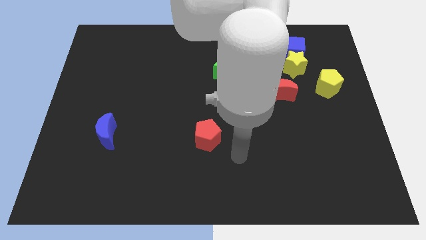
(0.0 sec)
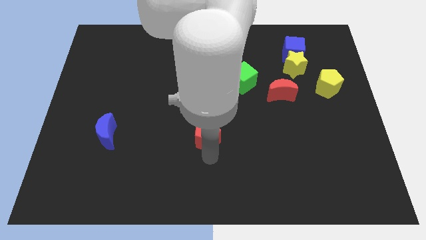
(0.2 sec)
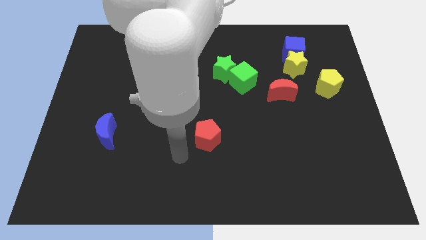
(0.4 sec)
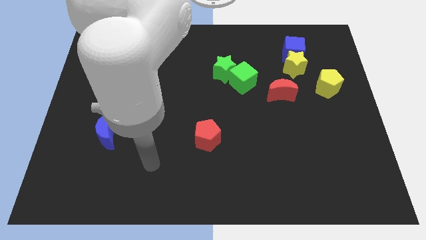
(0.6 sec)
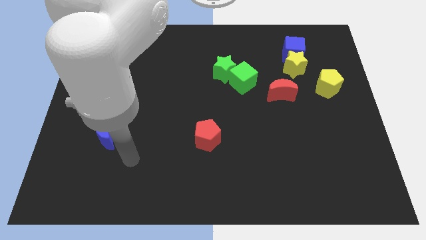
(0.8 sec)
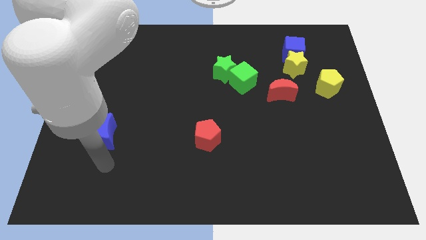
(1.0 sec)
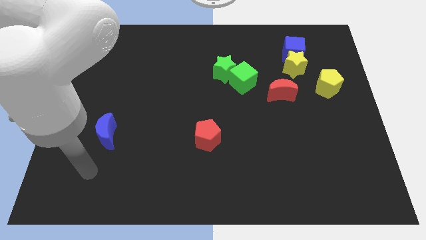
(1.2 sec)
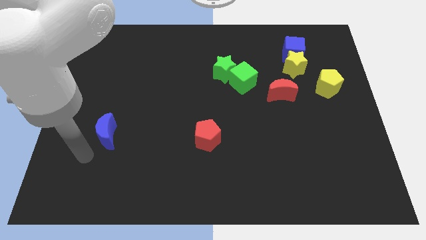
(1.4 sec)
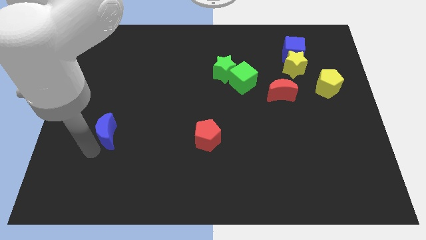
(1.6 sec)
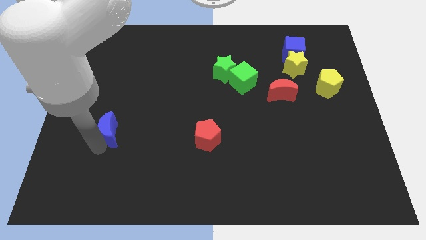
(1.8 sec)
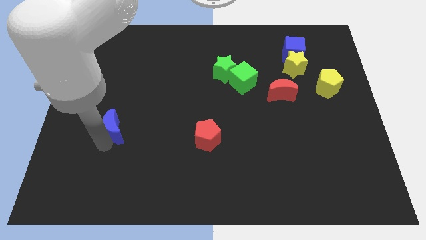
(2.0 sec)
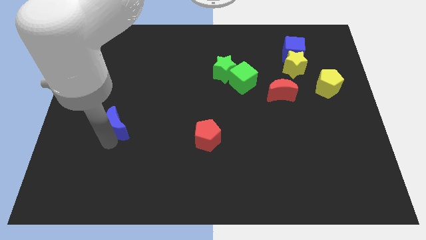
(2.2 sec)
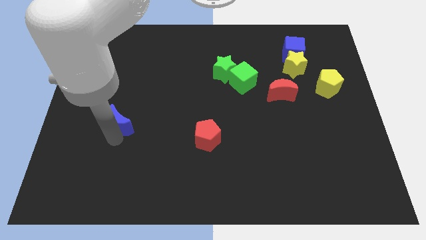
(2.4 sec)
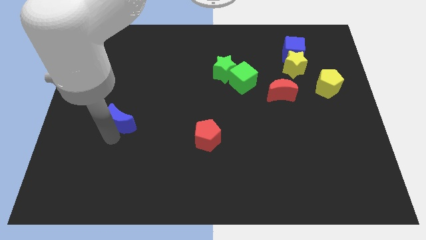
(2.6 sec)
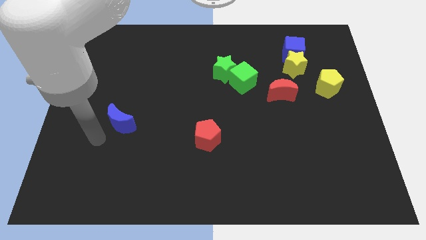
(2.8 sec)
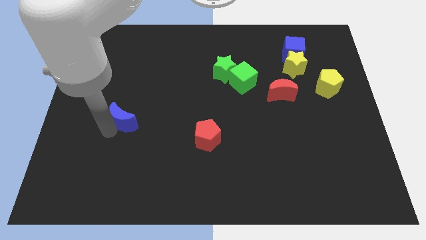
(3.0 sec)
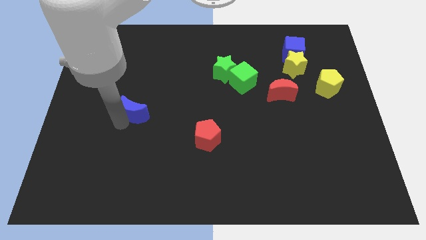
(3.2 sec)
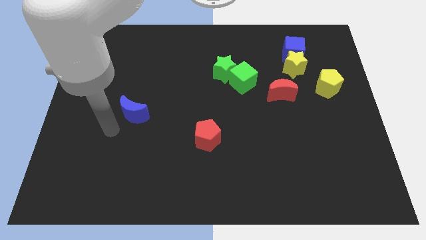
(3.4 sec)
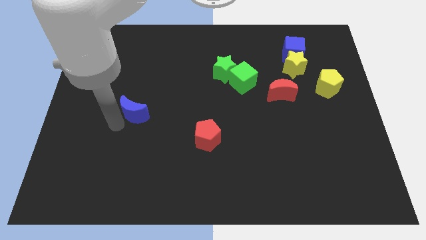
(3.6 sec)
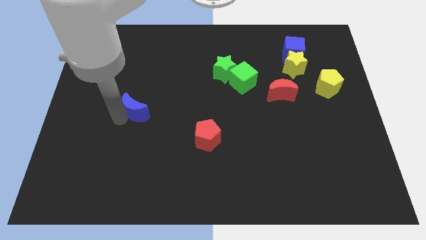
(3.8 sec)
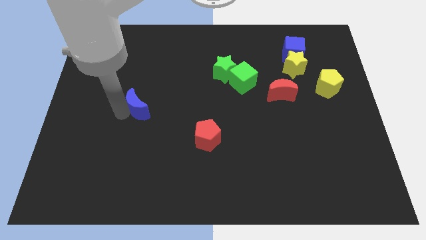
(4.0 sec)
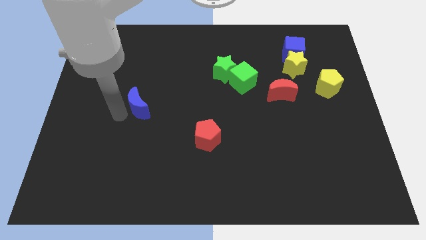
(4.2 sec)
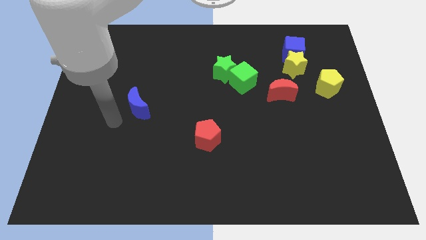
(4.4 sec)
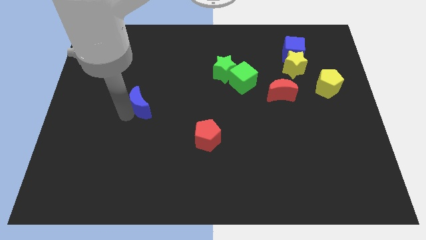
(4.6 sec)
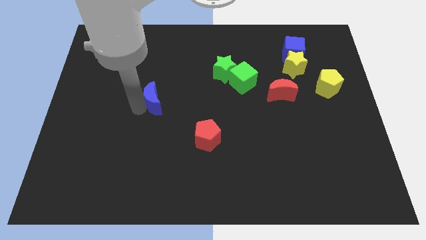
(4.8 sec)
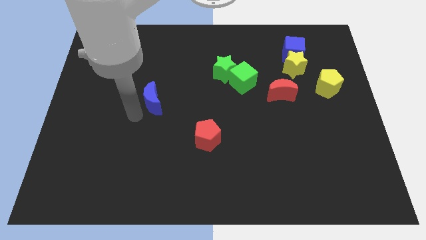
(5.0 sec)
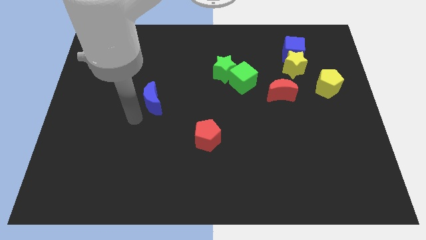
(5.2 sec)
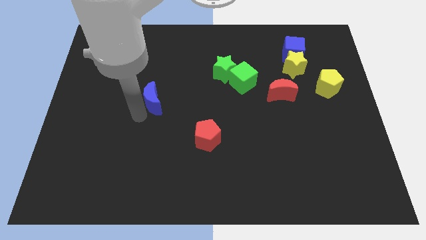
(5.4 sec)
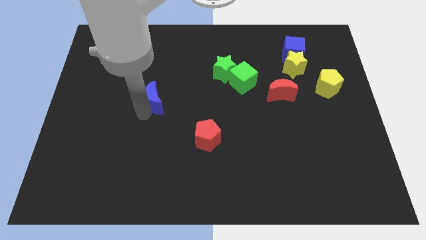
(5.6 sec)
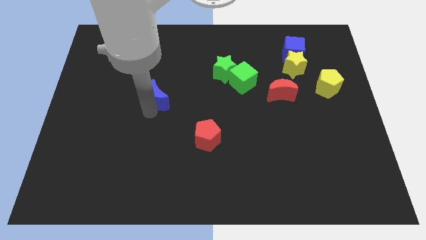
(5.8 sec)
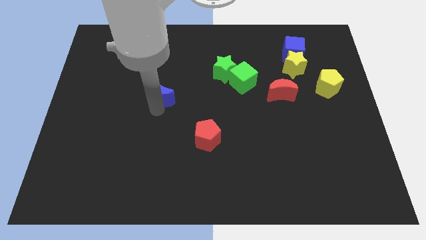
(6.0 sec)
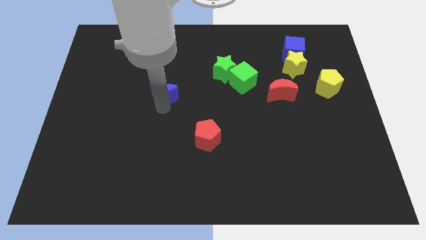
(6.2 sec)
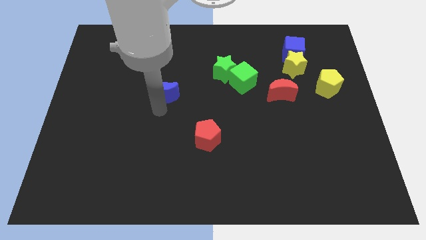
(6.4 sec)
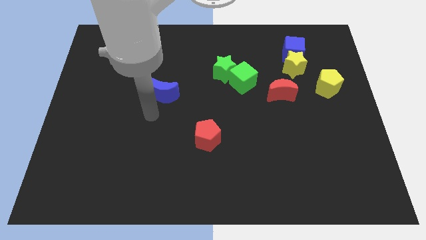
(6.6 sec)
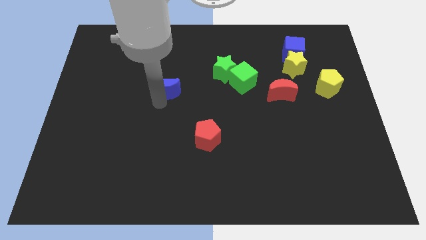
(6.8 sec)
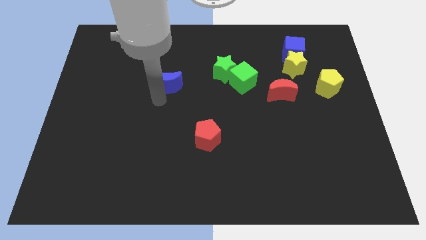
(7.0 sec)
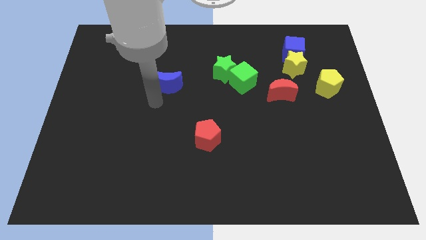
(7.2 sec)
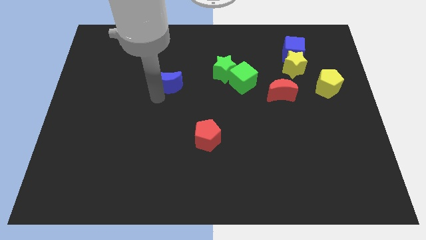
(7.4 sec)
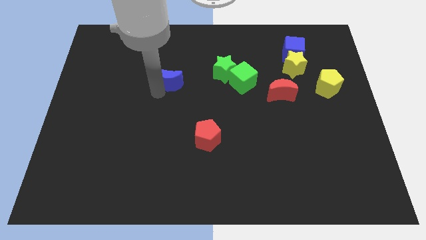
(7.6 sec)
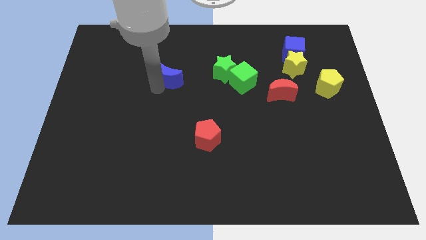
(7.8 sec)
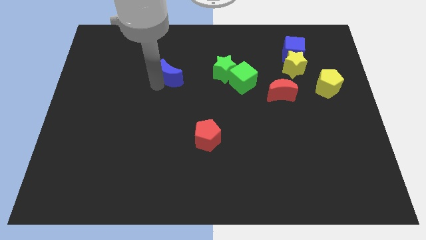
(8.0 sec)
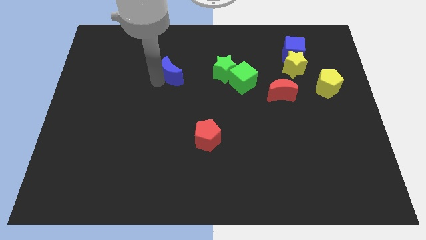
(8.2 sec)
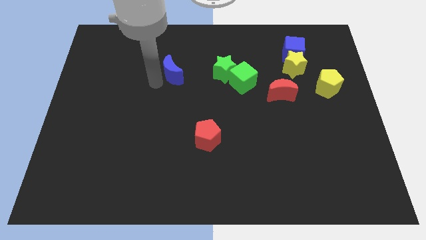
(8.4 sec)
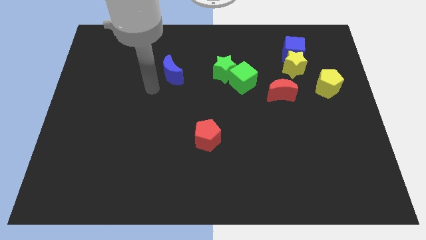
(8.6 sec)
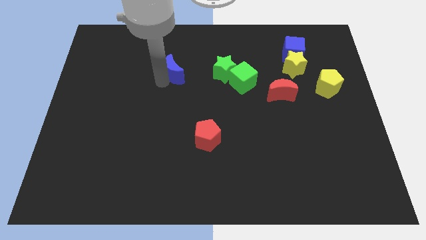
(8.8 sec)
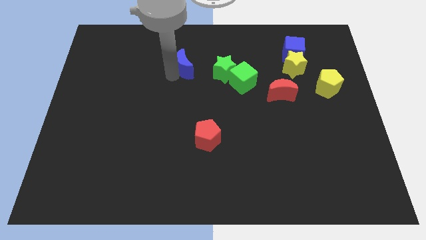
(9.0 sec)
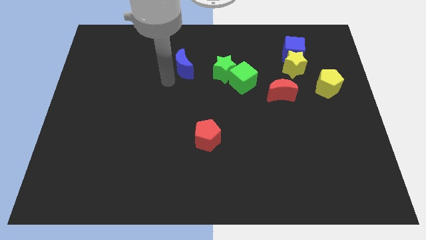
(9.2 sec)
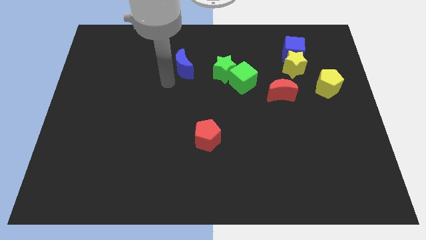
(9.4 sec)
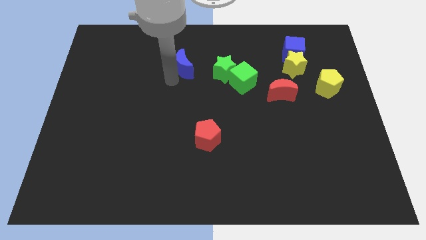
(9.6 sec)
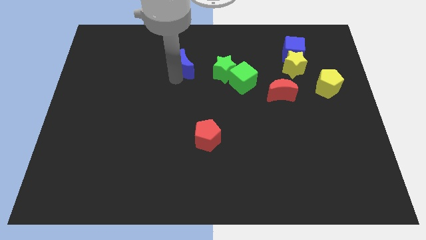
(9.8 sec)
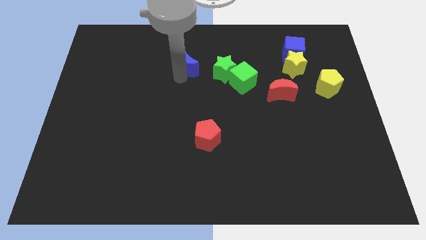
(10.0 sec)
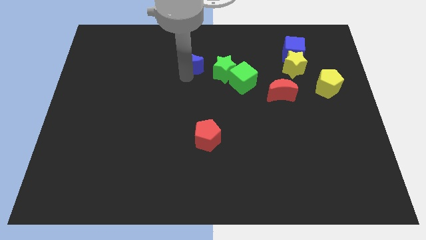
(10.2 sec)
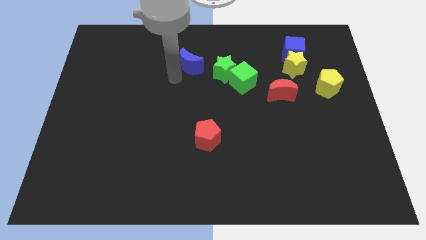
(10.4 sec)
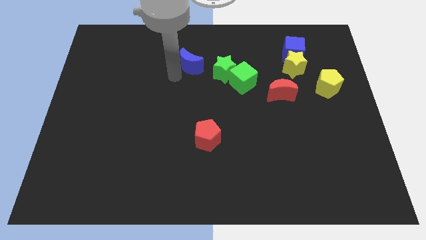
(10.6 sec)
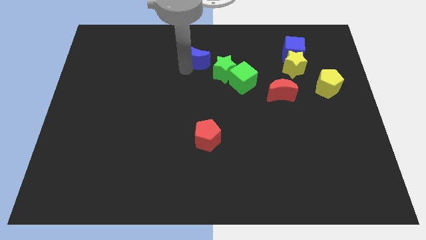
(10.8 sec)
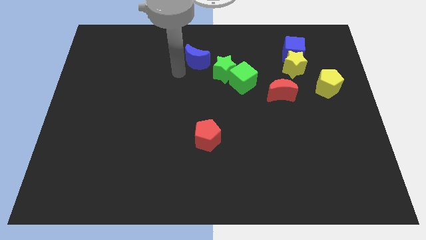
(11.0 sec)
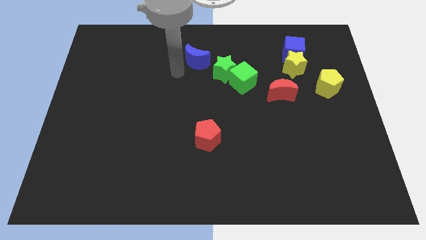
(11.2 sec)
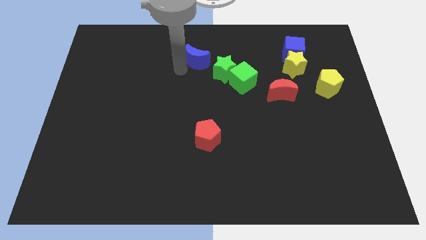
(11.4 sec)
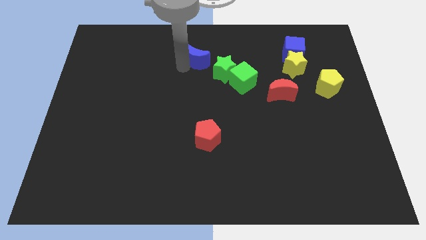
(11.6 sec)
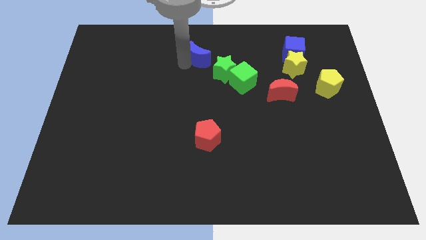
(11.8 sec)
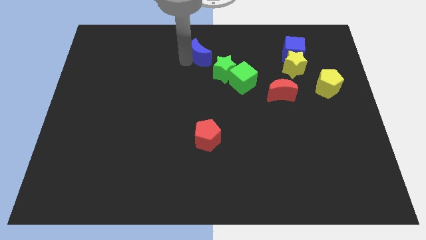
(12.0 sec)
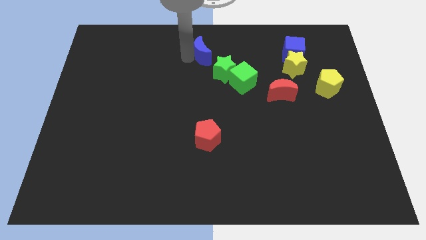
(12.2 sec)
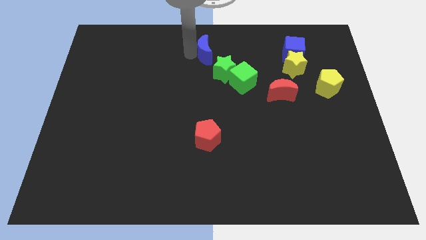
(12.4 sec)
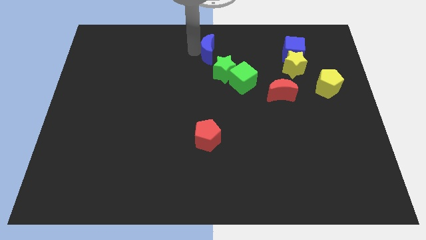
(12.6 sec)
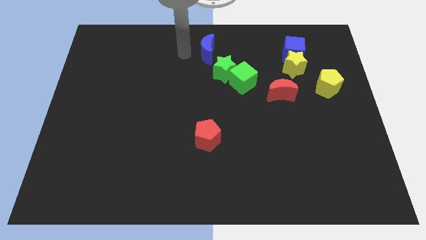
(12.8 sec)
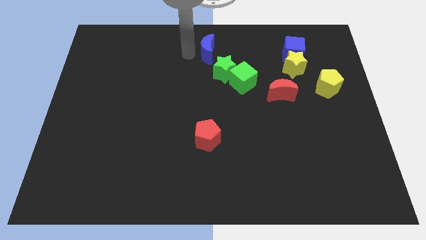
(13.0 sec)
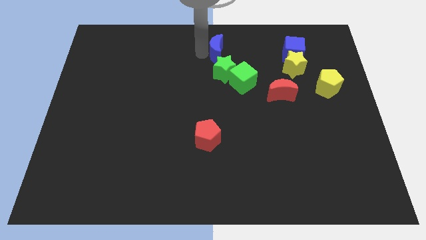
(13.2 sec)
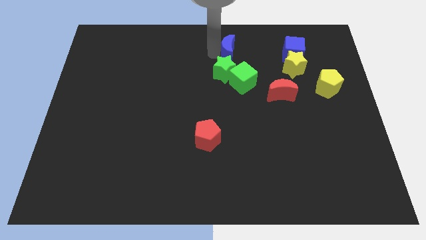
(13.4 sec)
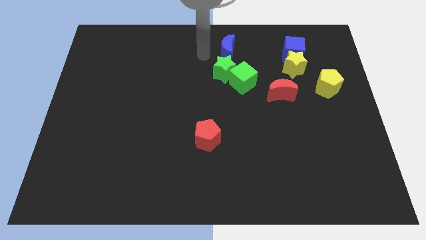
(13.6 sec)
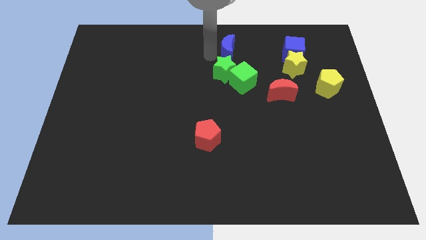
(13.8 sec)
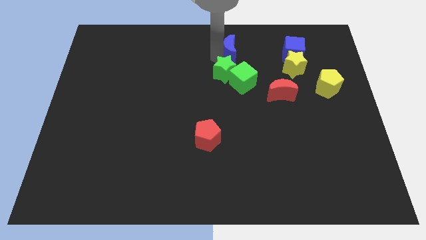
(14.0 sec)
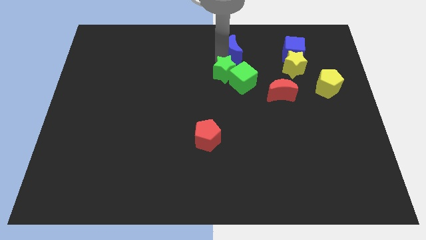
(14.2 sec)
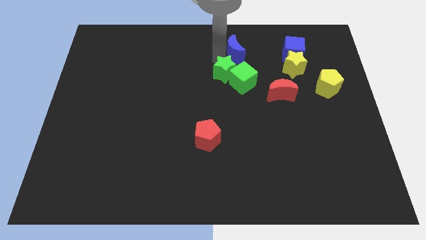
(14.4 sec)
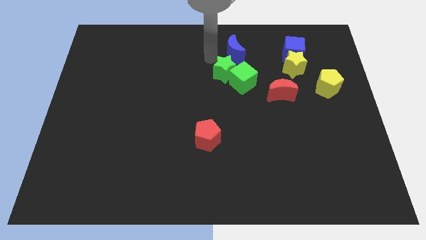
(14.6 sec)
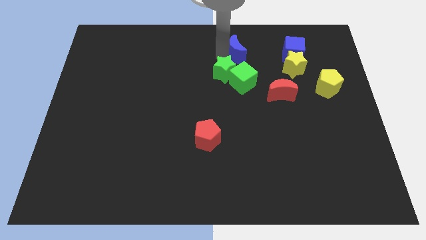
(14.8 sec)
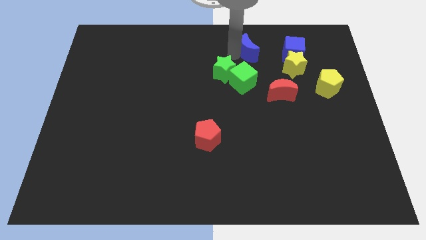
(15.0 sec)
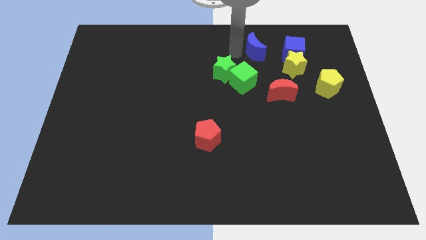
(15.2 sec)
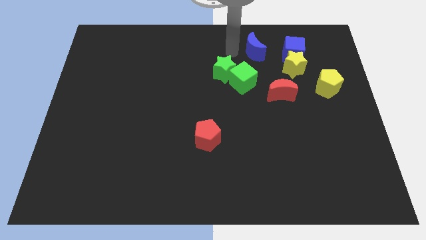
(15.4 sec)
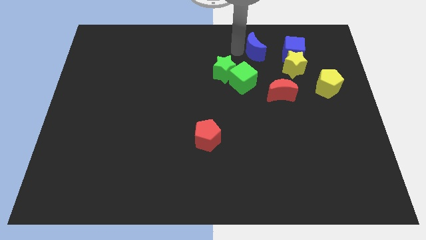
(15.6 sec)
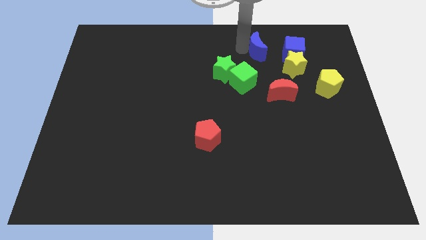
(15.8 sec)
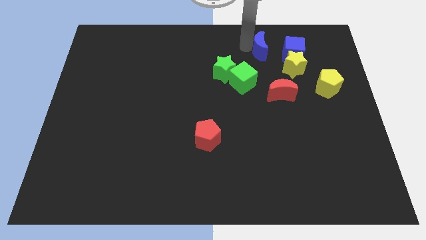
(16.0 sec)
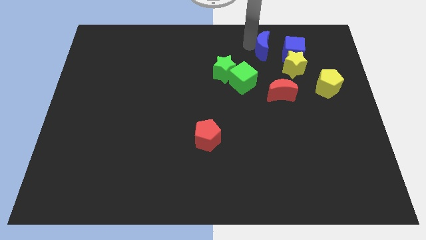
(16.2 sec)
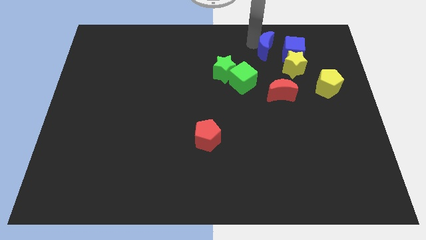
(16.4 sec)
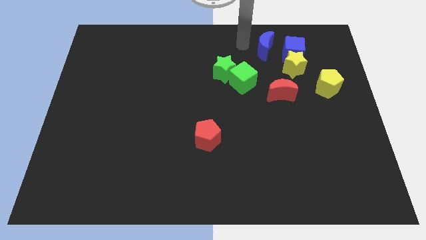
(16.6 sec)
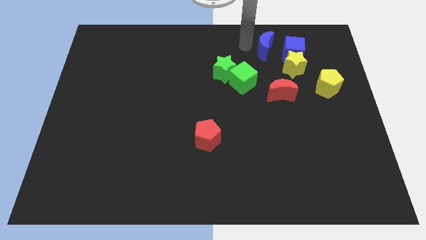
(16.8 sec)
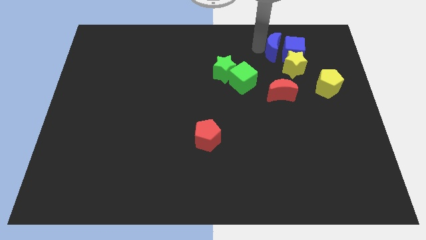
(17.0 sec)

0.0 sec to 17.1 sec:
put the blue moon next to the blue cube
